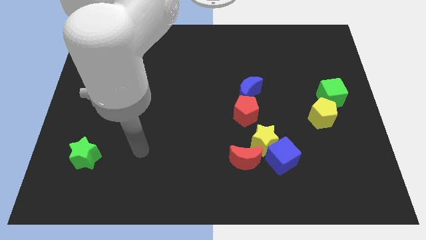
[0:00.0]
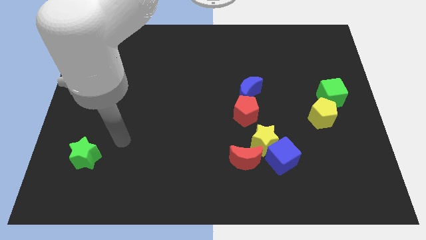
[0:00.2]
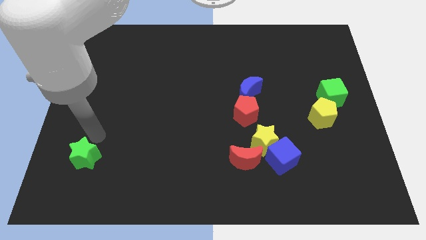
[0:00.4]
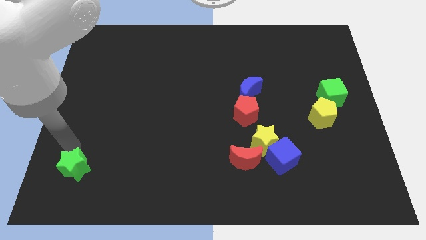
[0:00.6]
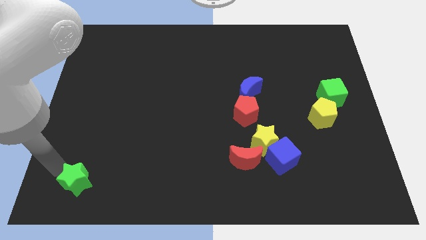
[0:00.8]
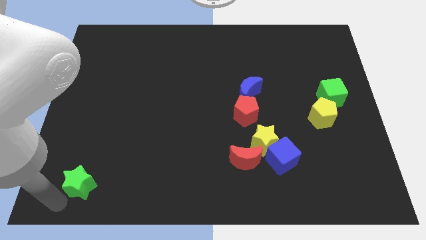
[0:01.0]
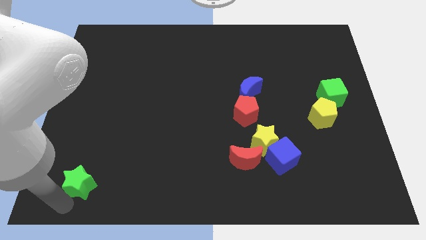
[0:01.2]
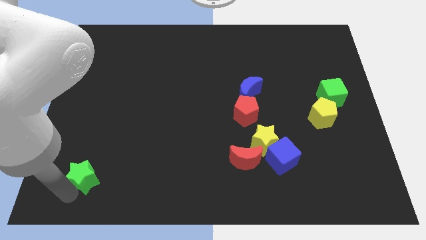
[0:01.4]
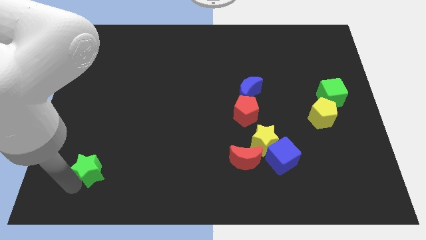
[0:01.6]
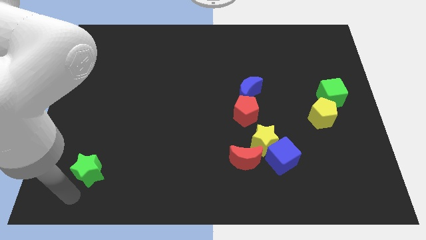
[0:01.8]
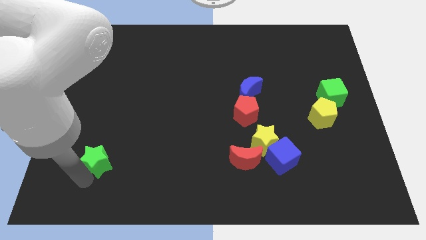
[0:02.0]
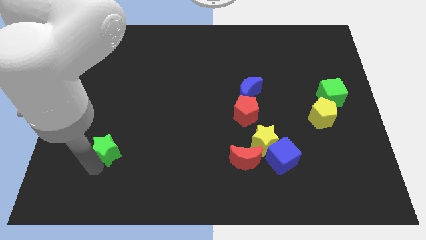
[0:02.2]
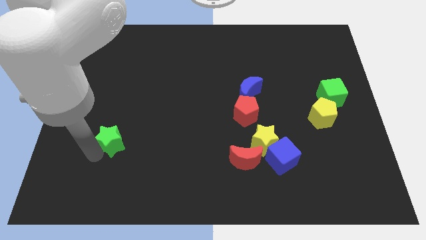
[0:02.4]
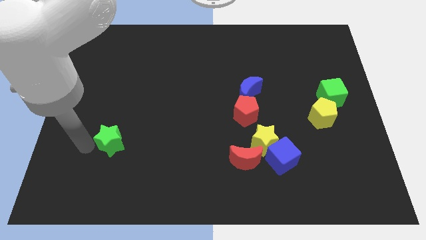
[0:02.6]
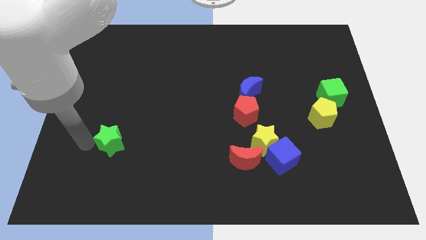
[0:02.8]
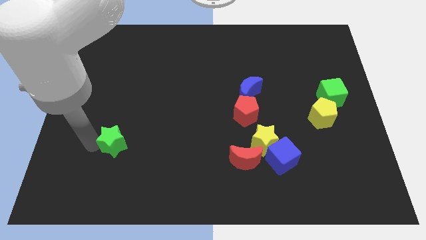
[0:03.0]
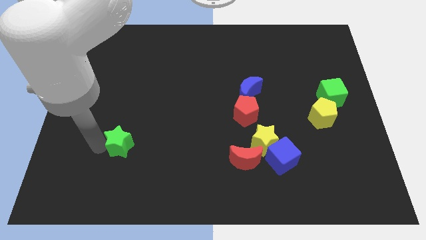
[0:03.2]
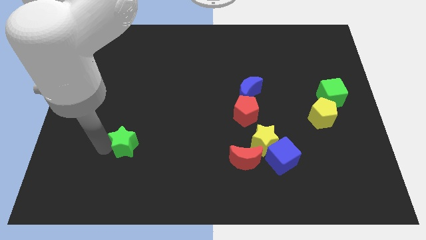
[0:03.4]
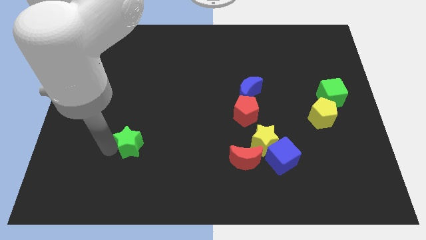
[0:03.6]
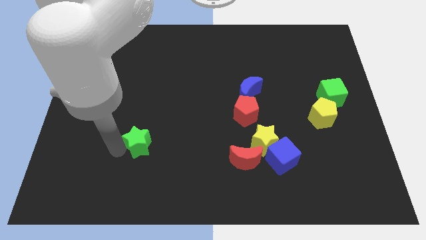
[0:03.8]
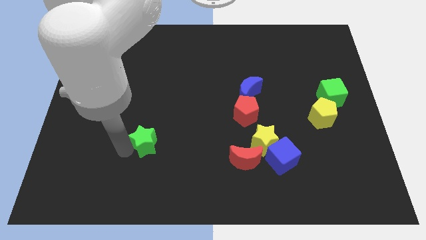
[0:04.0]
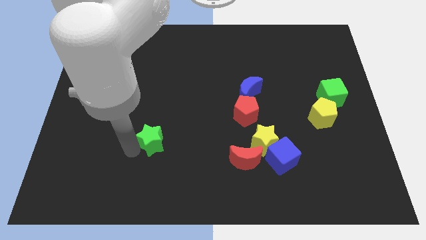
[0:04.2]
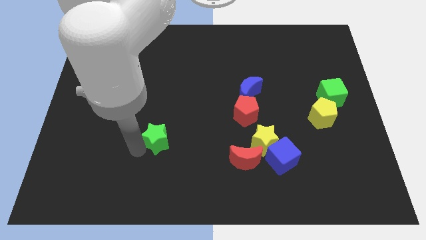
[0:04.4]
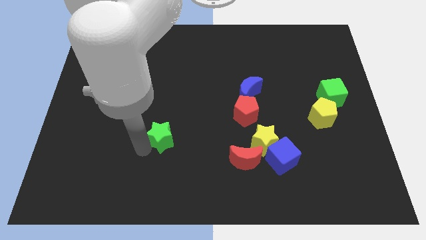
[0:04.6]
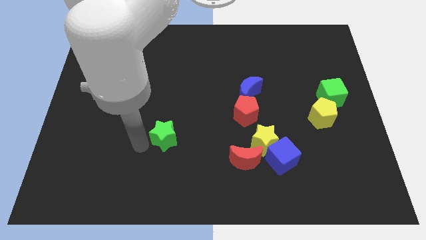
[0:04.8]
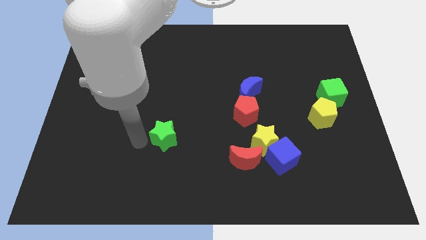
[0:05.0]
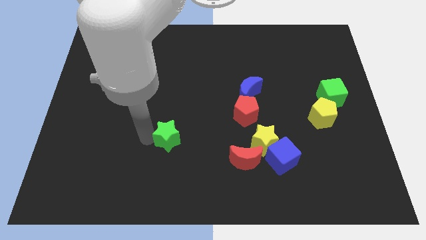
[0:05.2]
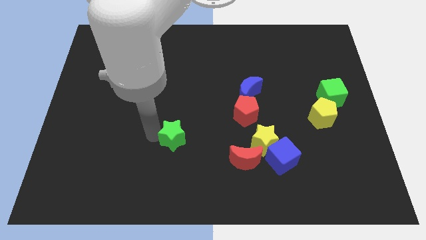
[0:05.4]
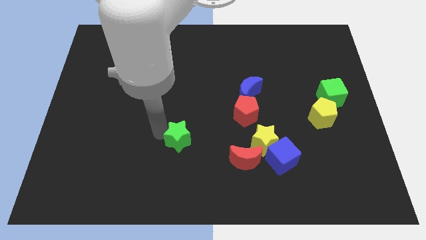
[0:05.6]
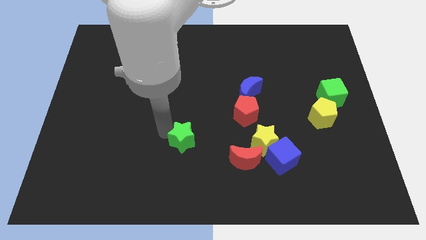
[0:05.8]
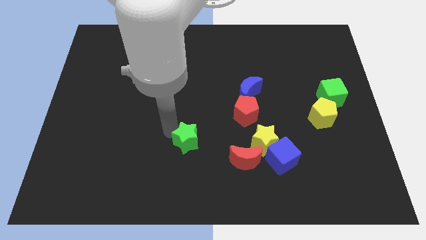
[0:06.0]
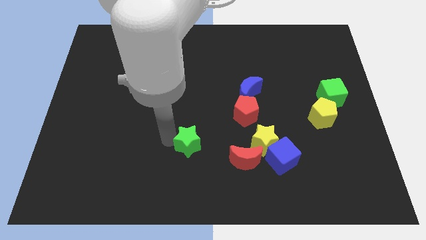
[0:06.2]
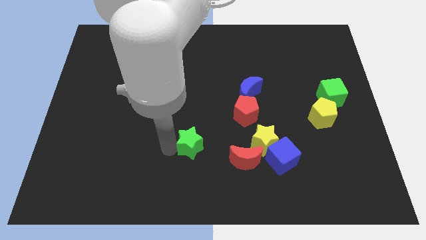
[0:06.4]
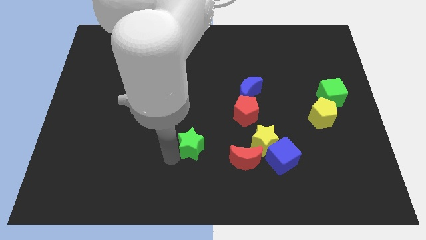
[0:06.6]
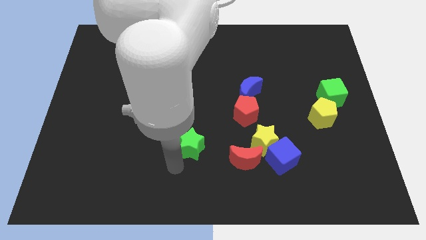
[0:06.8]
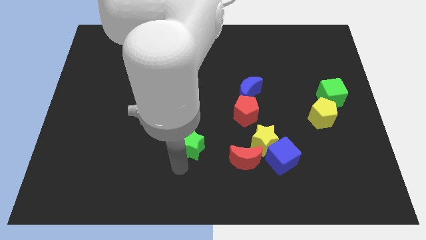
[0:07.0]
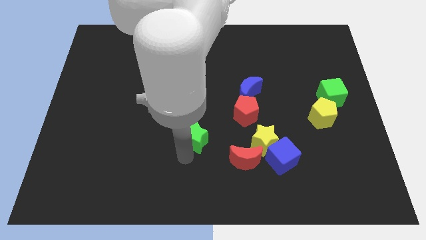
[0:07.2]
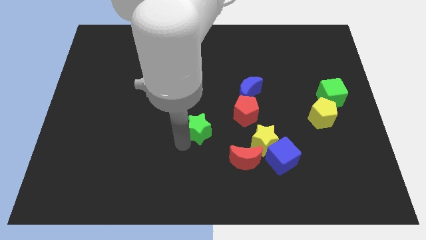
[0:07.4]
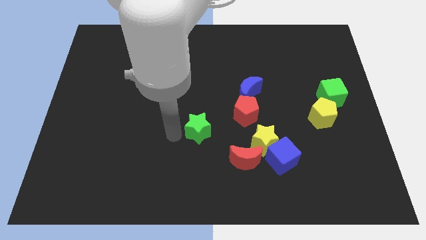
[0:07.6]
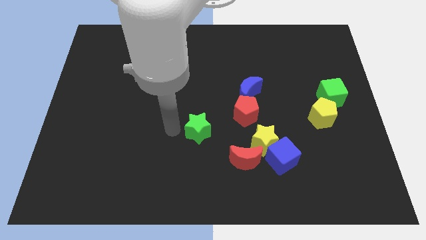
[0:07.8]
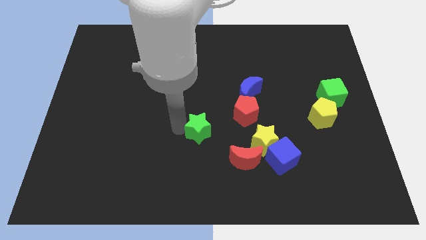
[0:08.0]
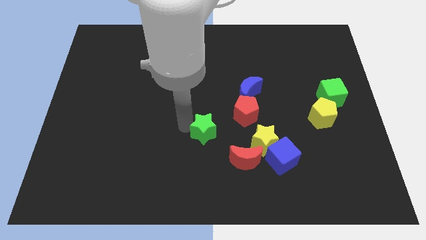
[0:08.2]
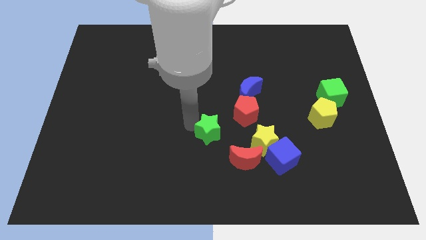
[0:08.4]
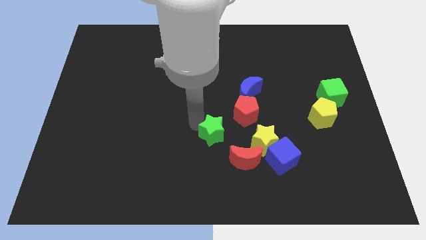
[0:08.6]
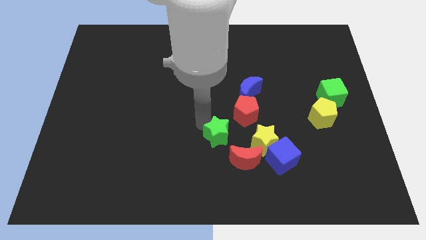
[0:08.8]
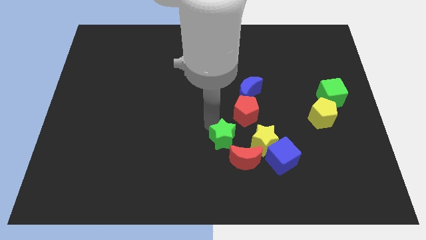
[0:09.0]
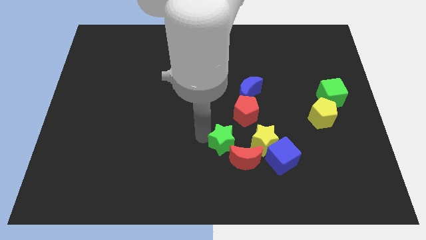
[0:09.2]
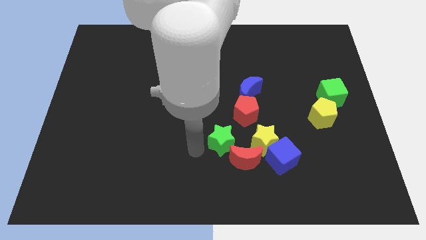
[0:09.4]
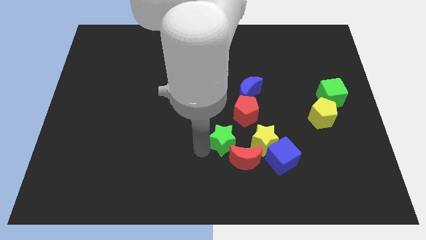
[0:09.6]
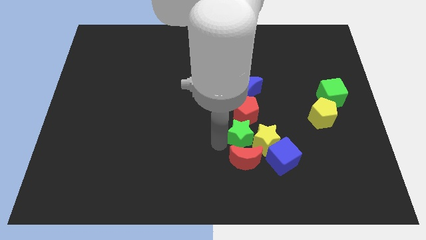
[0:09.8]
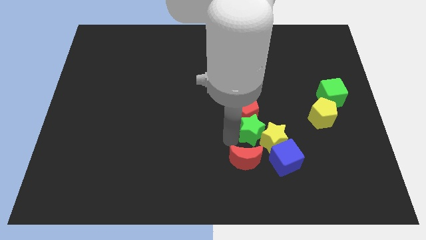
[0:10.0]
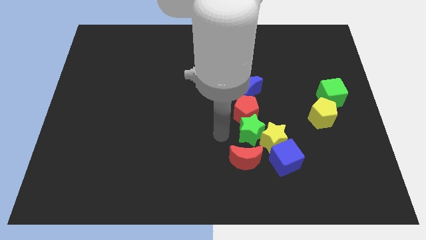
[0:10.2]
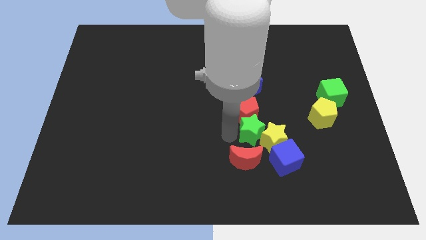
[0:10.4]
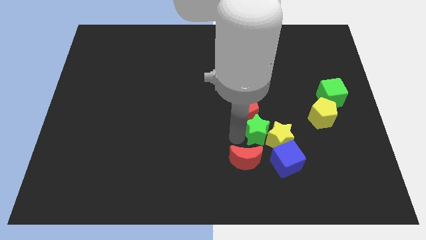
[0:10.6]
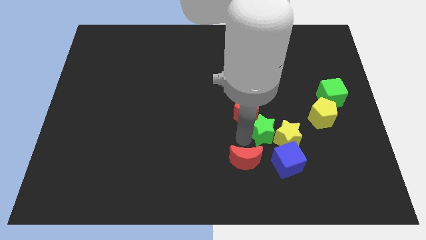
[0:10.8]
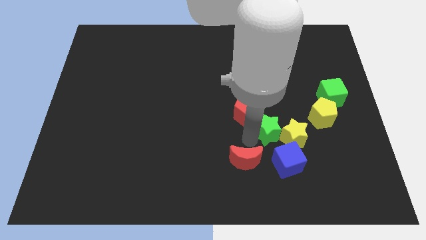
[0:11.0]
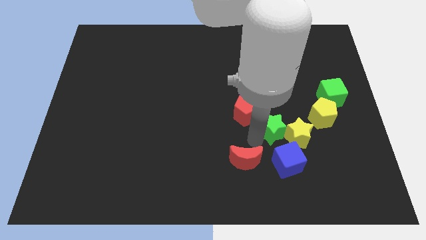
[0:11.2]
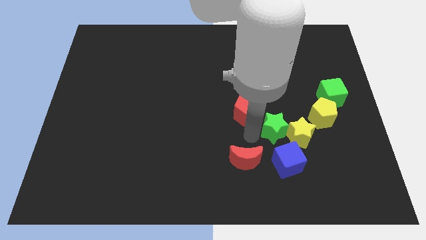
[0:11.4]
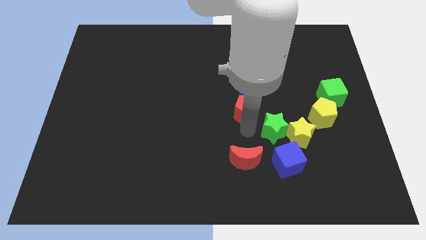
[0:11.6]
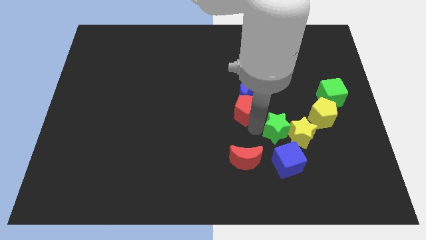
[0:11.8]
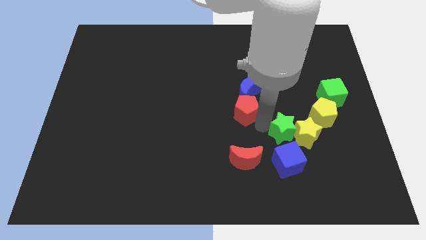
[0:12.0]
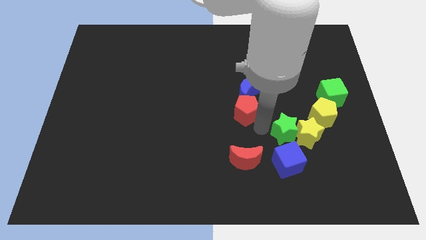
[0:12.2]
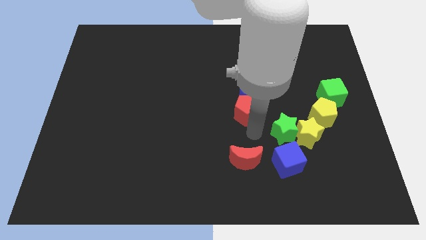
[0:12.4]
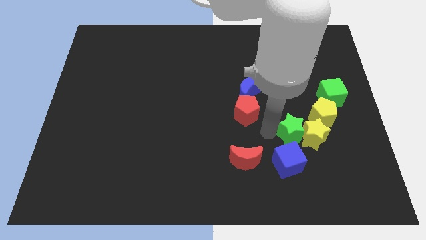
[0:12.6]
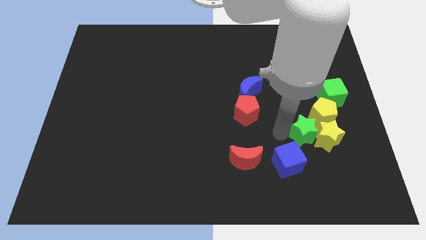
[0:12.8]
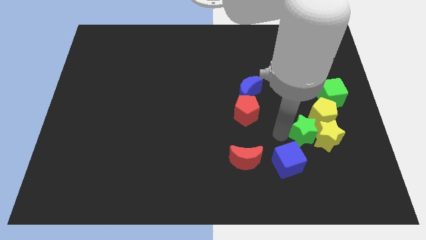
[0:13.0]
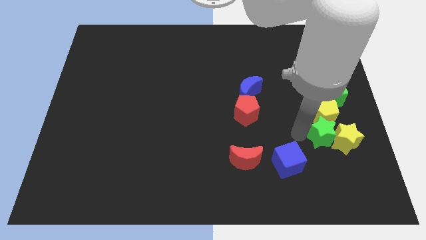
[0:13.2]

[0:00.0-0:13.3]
slide the green star to the bottom side of the green cube
